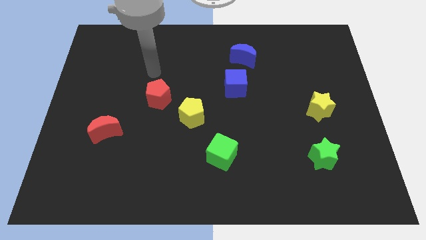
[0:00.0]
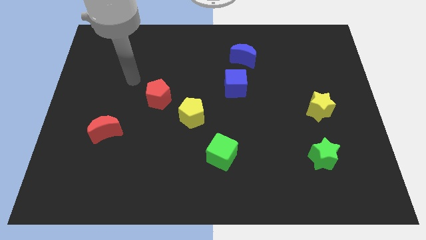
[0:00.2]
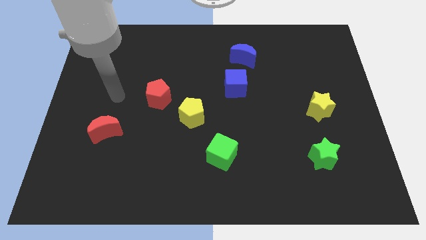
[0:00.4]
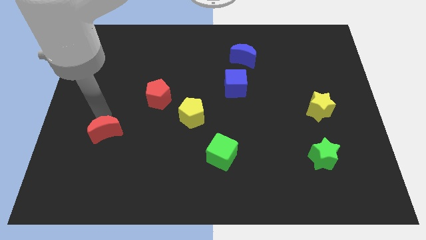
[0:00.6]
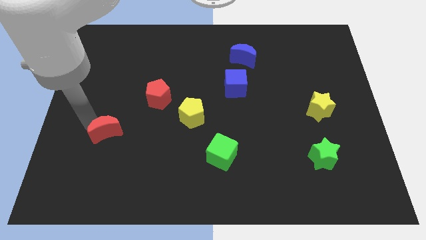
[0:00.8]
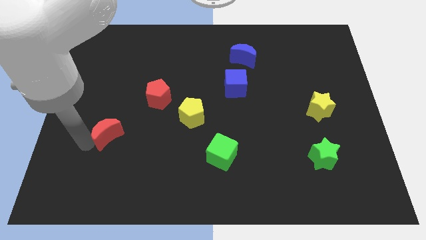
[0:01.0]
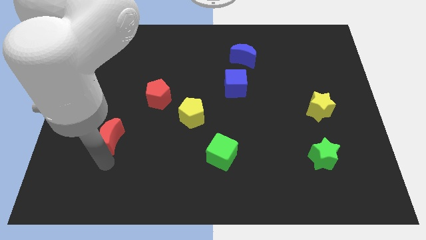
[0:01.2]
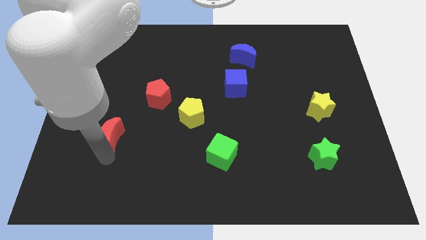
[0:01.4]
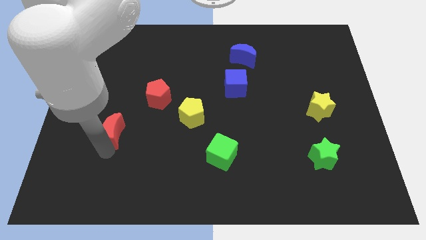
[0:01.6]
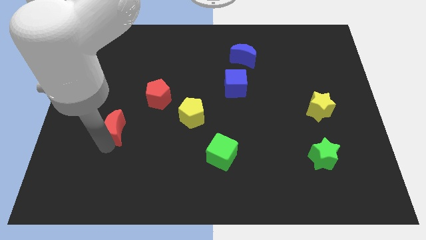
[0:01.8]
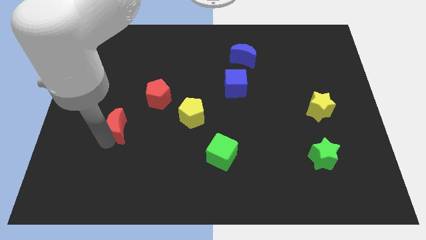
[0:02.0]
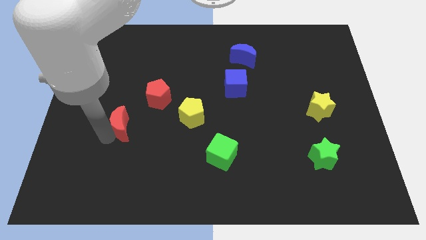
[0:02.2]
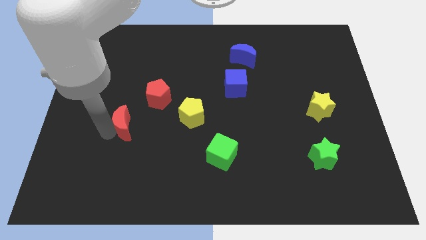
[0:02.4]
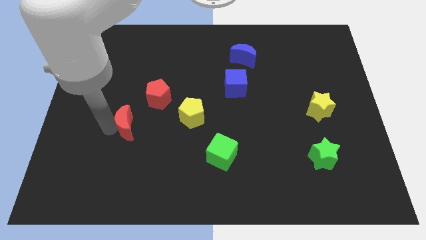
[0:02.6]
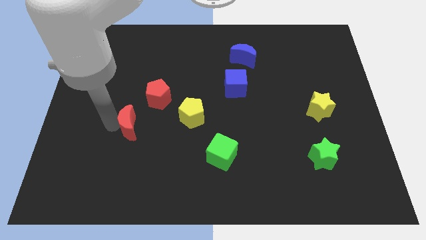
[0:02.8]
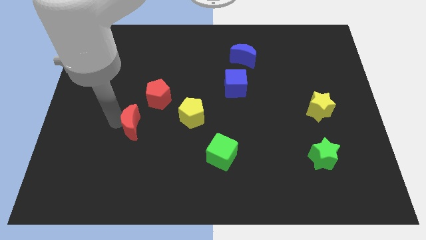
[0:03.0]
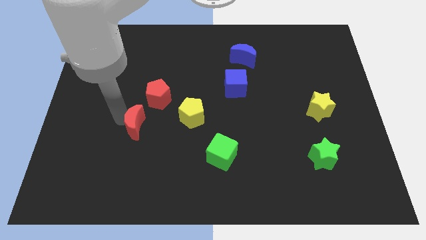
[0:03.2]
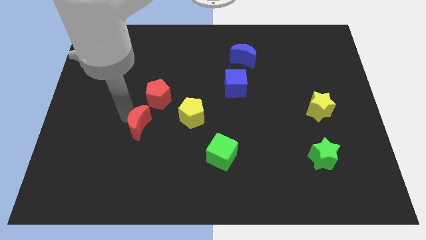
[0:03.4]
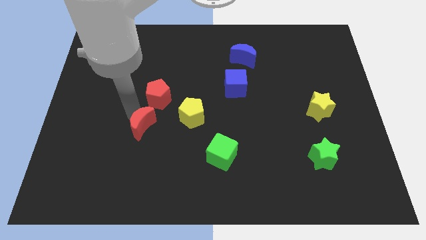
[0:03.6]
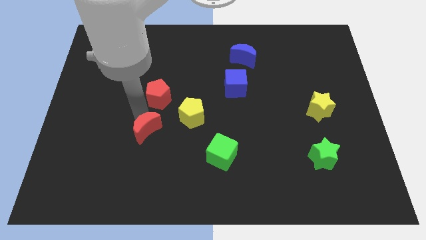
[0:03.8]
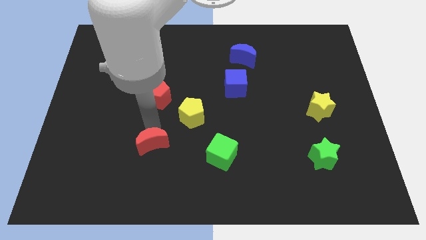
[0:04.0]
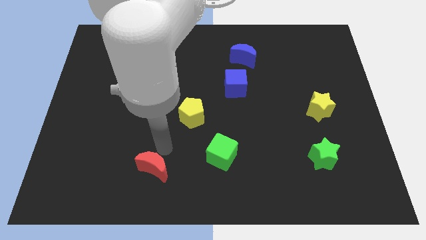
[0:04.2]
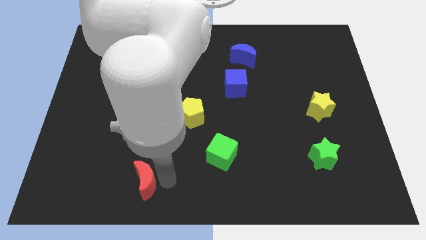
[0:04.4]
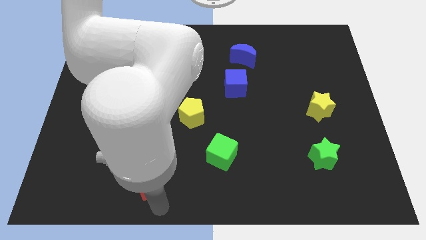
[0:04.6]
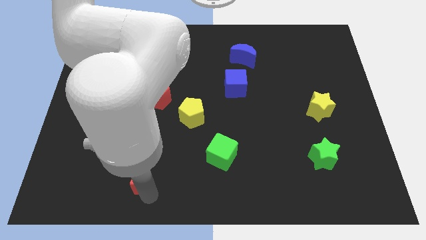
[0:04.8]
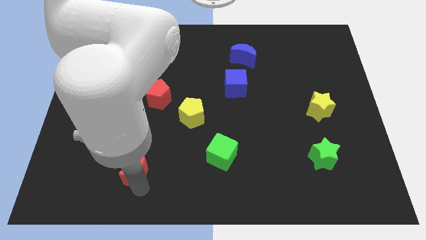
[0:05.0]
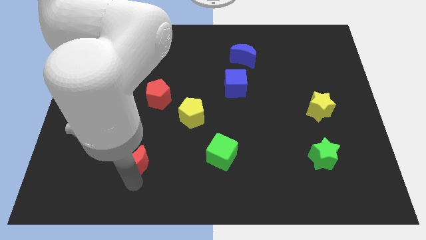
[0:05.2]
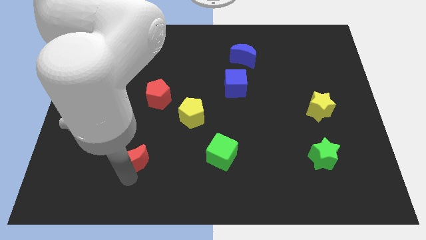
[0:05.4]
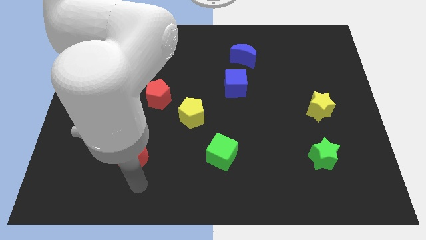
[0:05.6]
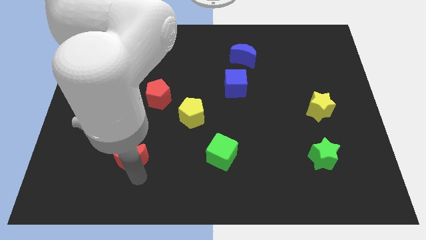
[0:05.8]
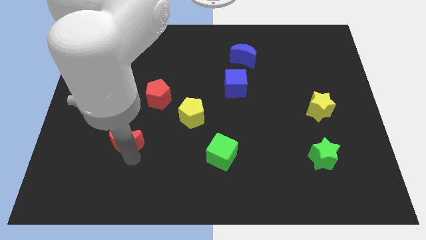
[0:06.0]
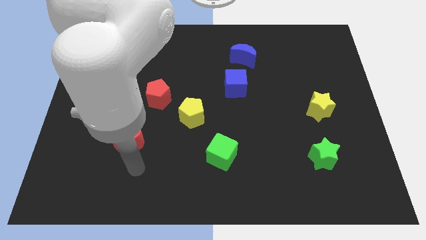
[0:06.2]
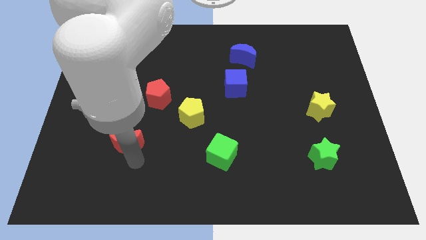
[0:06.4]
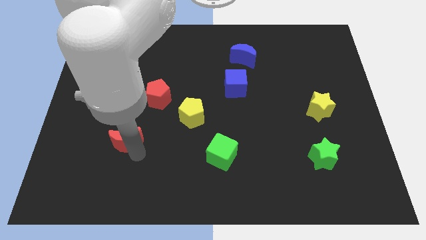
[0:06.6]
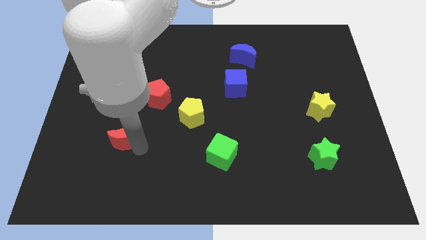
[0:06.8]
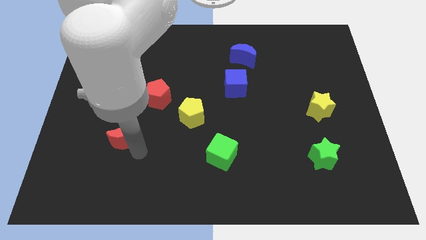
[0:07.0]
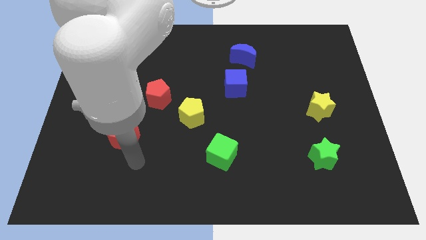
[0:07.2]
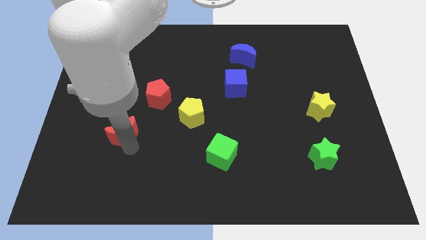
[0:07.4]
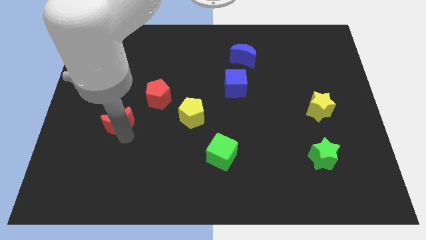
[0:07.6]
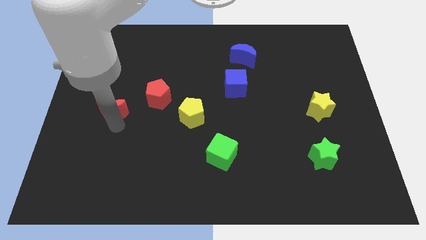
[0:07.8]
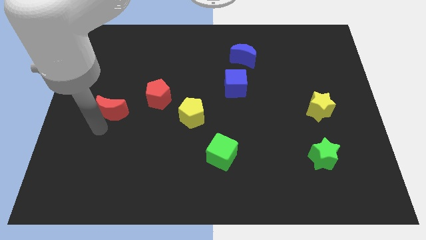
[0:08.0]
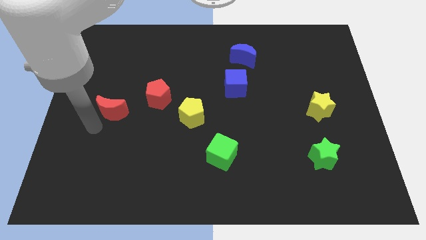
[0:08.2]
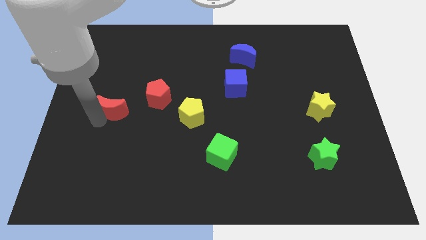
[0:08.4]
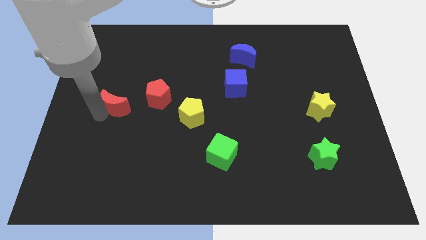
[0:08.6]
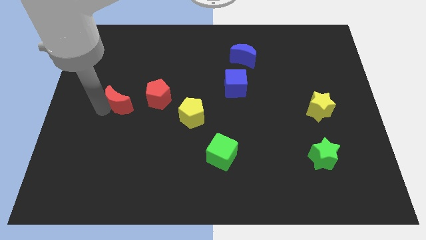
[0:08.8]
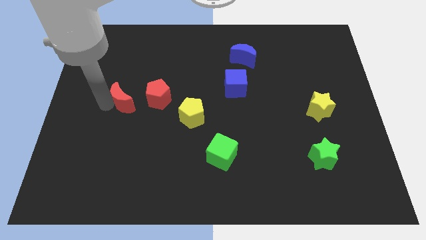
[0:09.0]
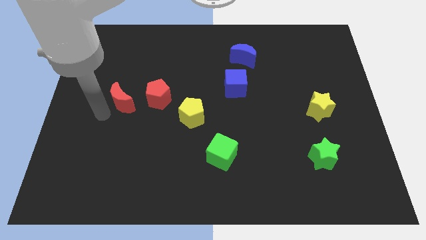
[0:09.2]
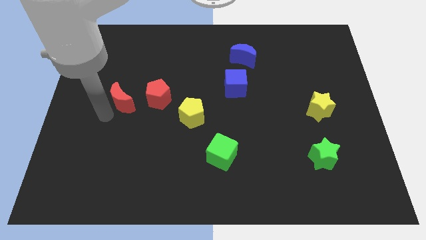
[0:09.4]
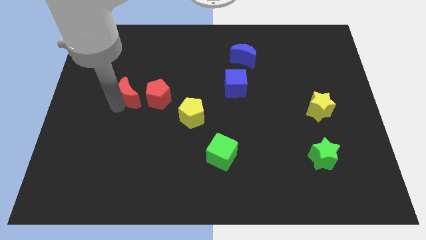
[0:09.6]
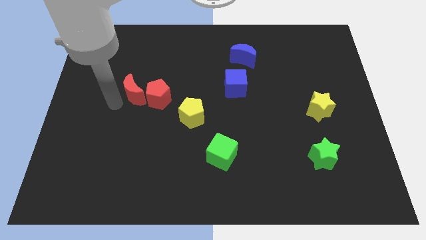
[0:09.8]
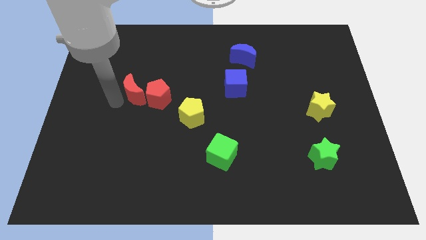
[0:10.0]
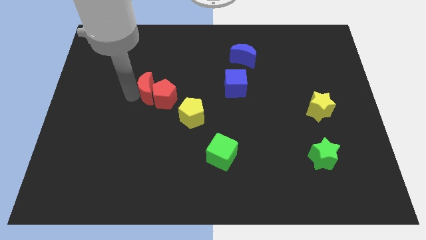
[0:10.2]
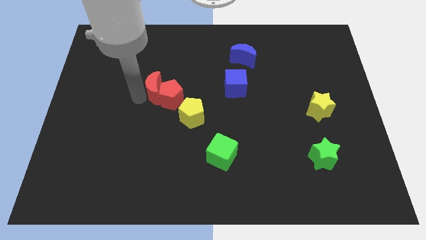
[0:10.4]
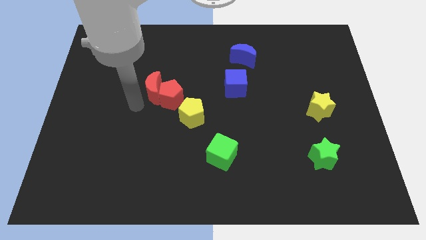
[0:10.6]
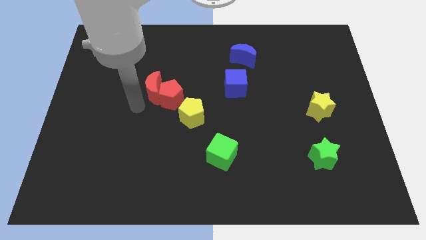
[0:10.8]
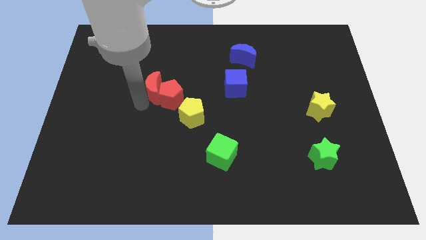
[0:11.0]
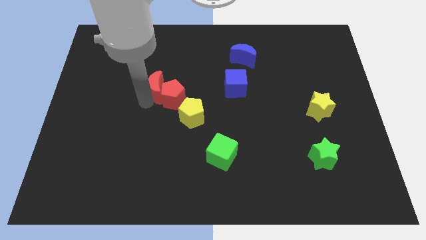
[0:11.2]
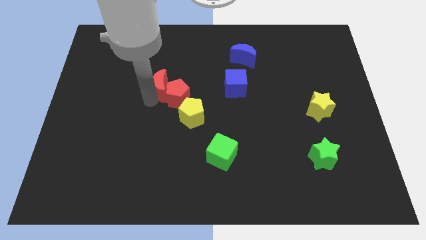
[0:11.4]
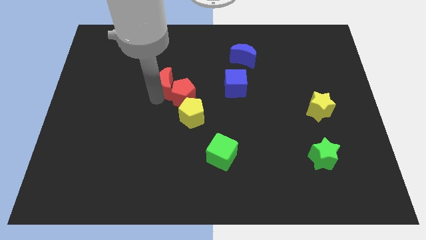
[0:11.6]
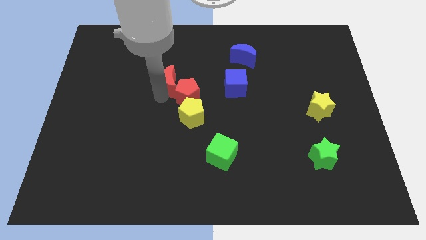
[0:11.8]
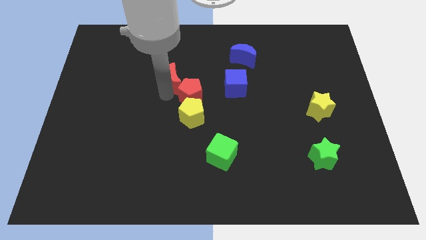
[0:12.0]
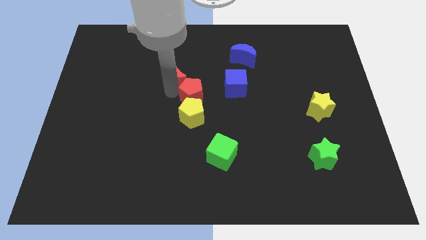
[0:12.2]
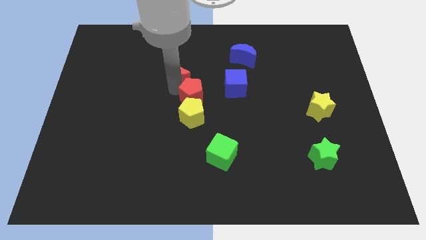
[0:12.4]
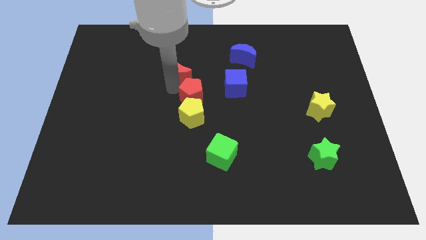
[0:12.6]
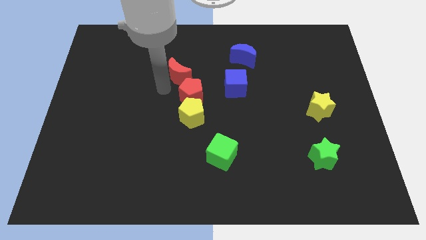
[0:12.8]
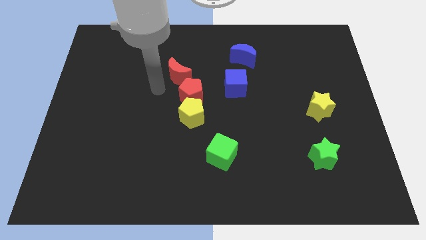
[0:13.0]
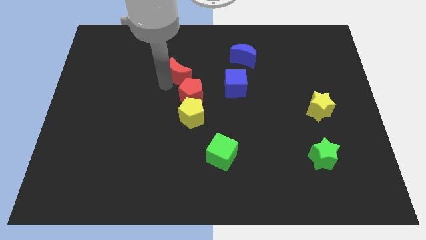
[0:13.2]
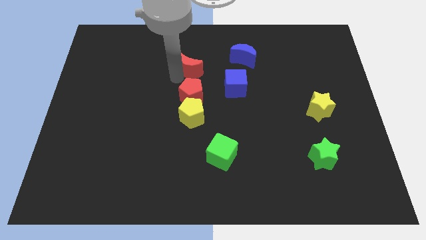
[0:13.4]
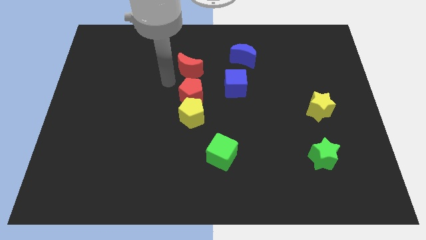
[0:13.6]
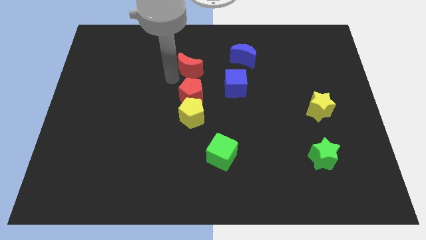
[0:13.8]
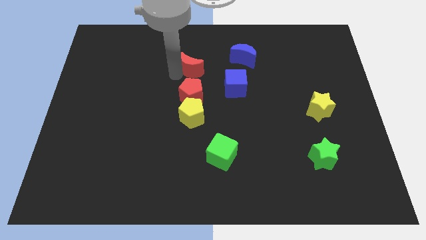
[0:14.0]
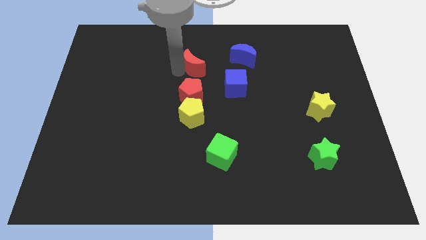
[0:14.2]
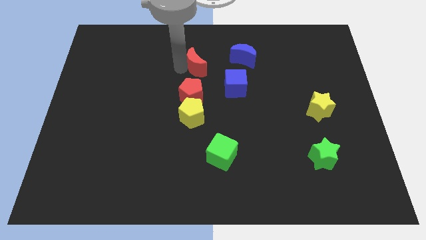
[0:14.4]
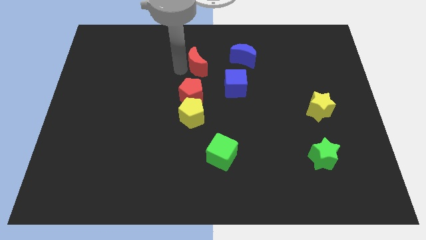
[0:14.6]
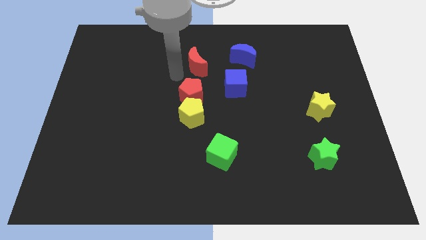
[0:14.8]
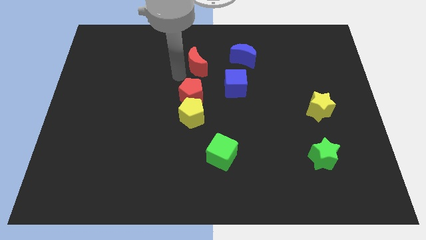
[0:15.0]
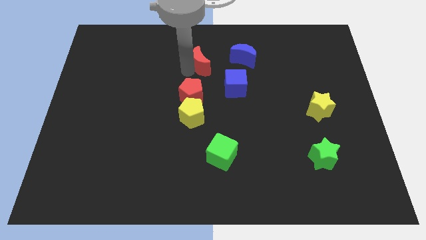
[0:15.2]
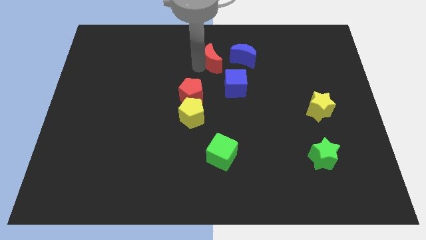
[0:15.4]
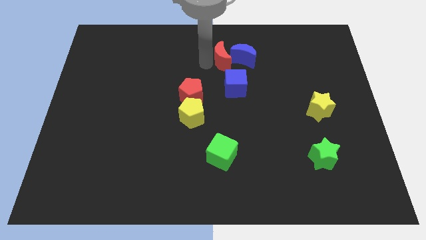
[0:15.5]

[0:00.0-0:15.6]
push the red moon towards the blue moon
